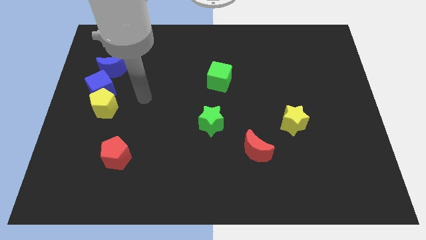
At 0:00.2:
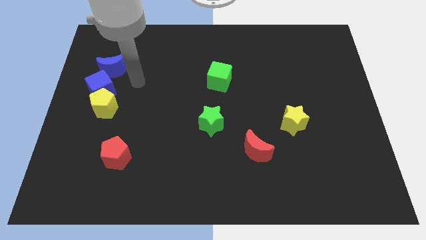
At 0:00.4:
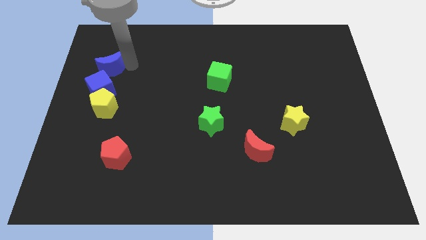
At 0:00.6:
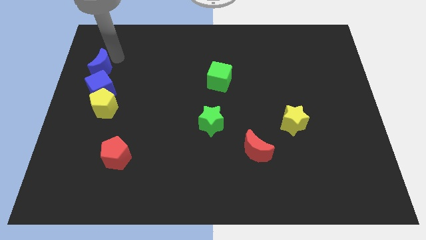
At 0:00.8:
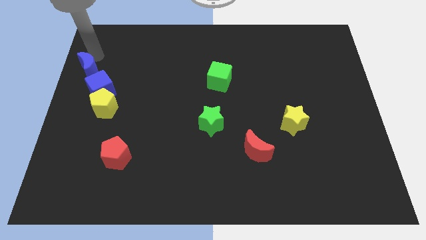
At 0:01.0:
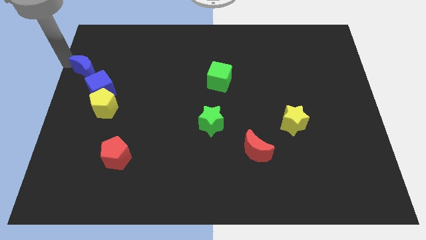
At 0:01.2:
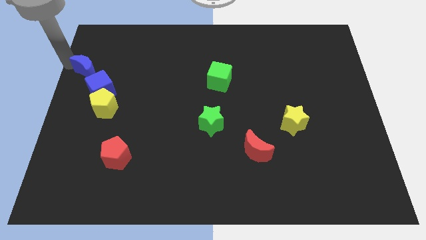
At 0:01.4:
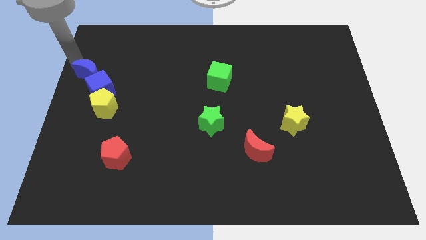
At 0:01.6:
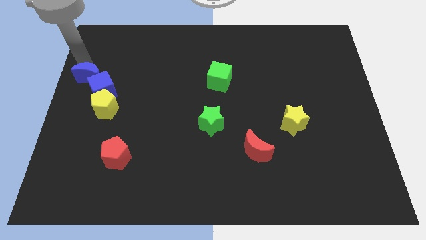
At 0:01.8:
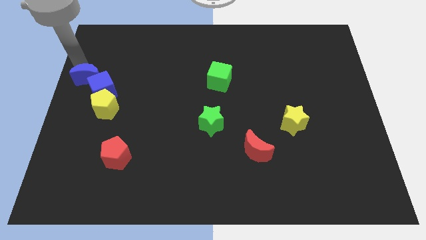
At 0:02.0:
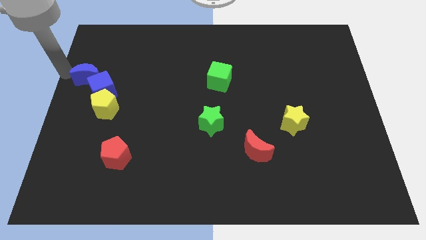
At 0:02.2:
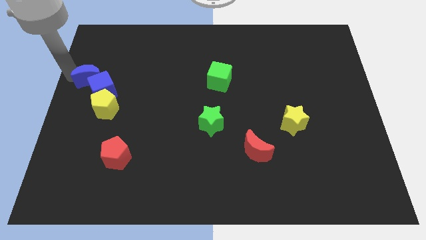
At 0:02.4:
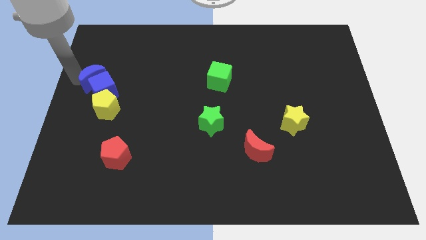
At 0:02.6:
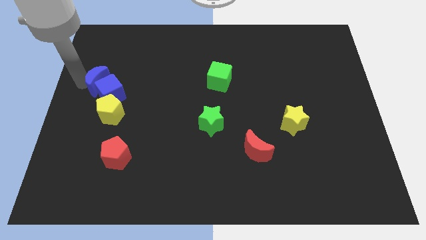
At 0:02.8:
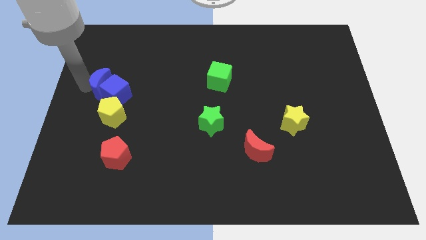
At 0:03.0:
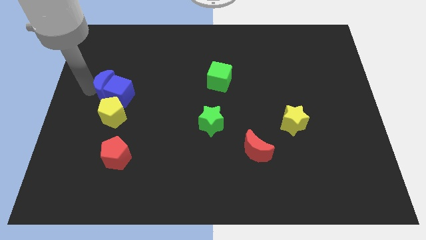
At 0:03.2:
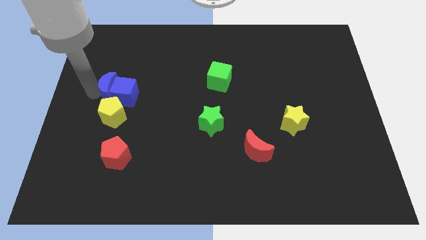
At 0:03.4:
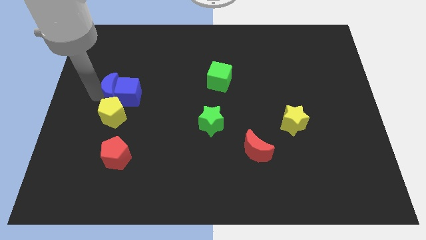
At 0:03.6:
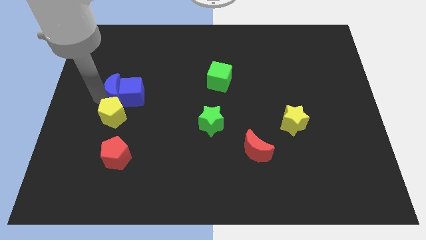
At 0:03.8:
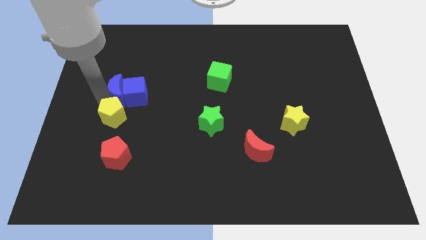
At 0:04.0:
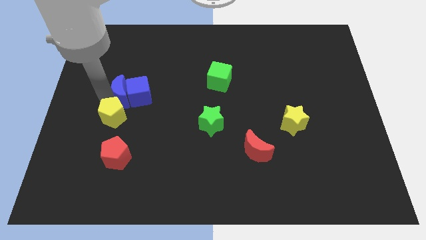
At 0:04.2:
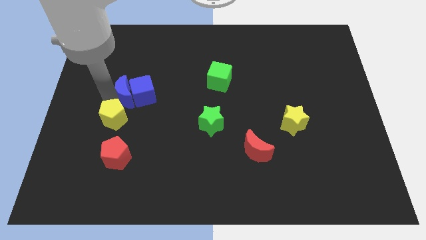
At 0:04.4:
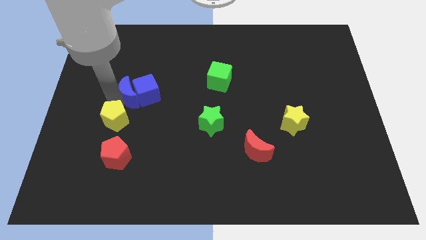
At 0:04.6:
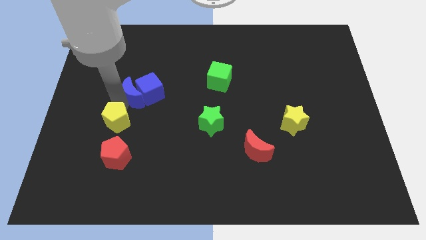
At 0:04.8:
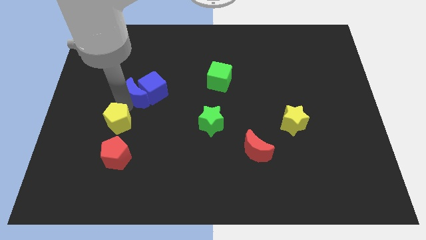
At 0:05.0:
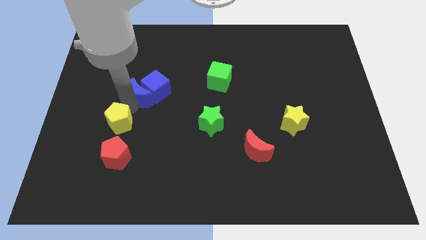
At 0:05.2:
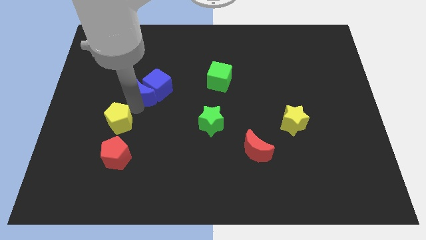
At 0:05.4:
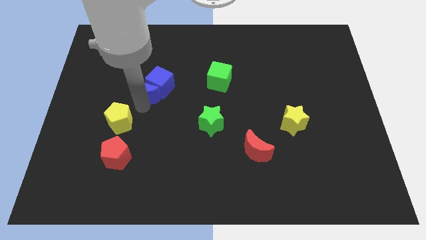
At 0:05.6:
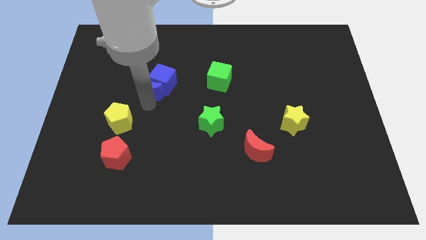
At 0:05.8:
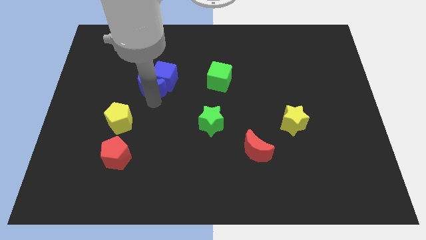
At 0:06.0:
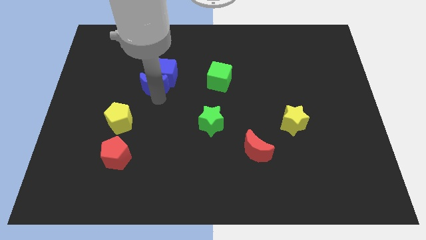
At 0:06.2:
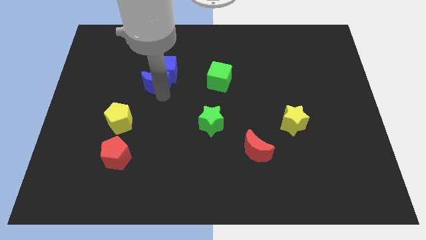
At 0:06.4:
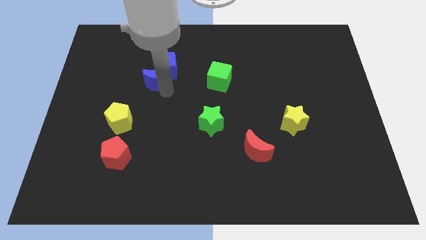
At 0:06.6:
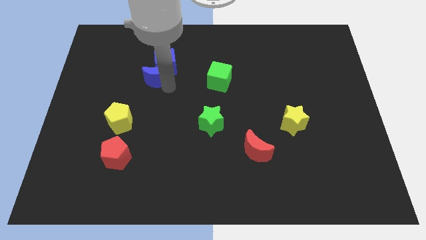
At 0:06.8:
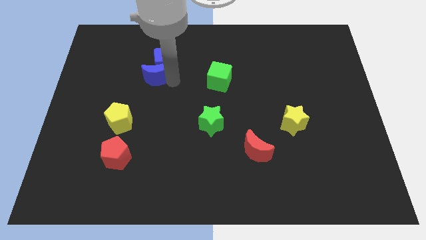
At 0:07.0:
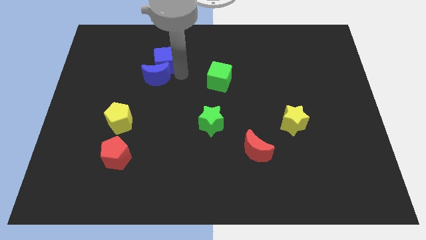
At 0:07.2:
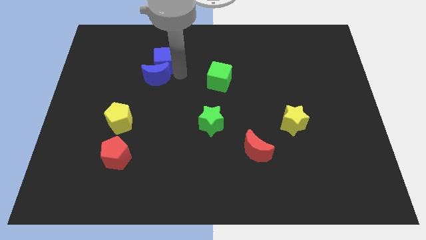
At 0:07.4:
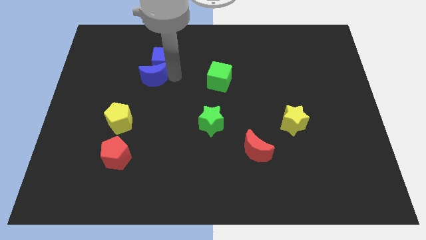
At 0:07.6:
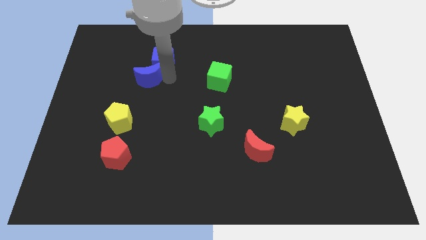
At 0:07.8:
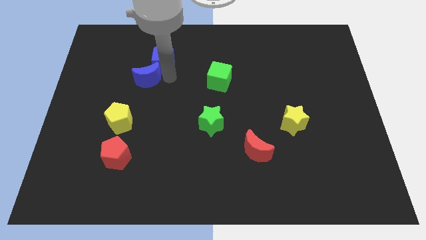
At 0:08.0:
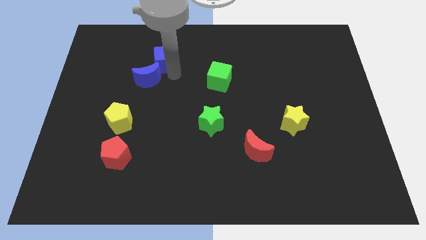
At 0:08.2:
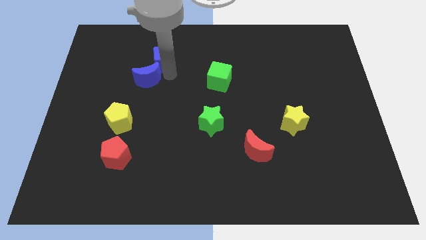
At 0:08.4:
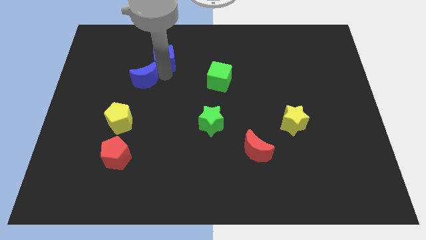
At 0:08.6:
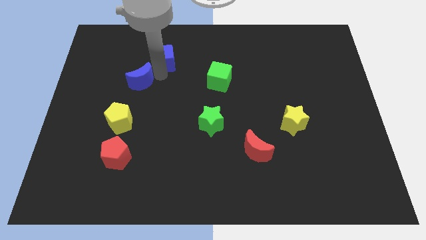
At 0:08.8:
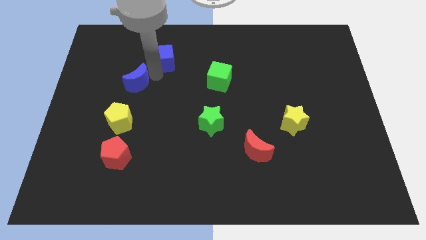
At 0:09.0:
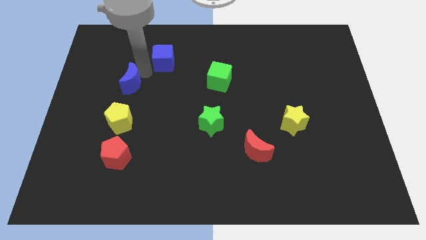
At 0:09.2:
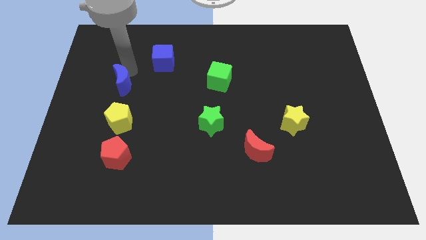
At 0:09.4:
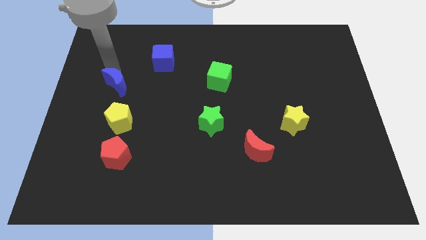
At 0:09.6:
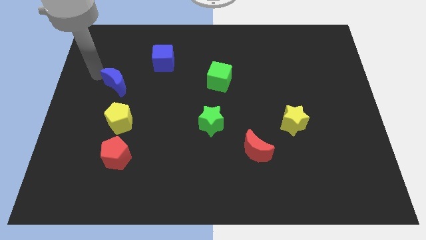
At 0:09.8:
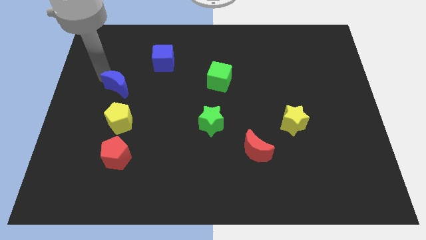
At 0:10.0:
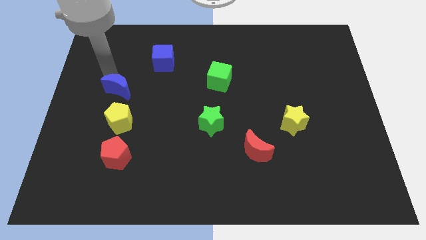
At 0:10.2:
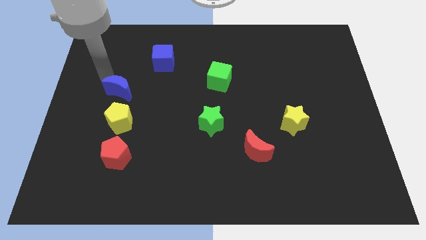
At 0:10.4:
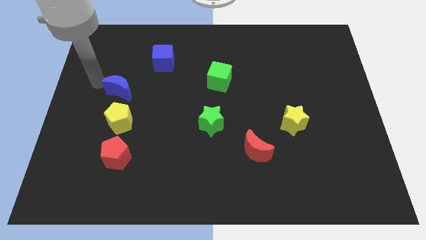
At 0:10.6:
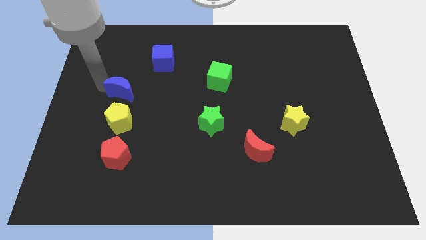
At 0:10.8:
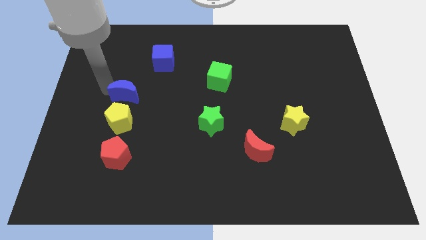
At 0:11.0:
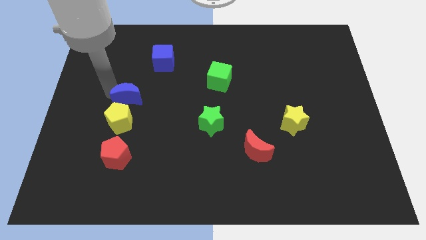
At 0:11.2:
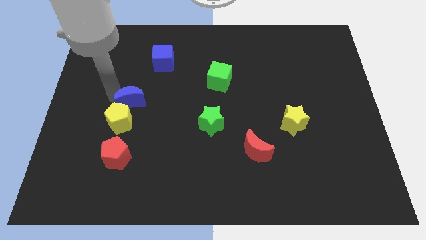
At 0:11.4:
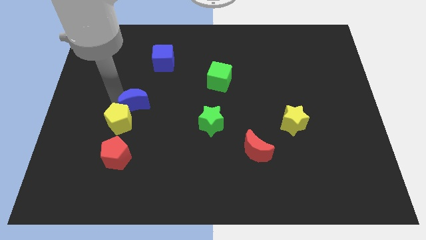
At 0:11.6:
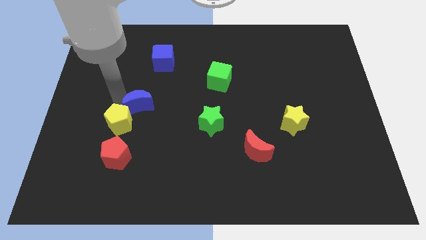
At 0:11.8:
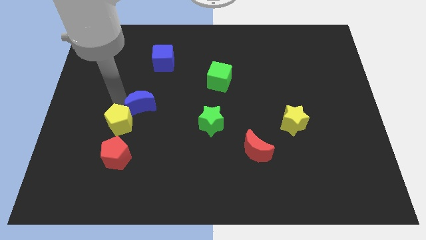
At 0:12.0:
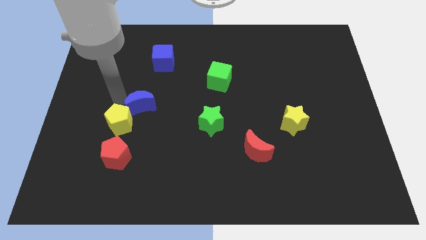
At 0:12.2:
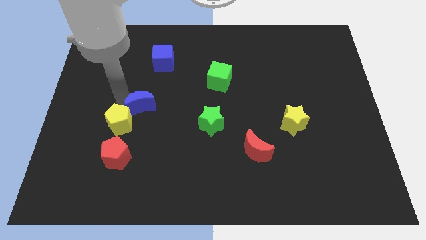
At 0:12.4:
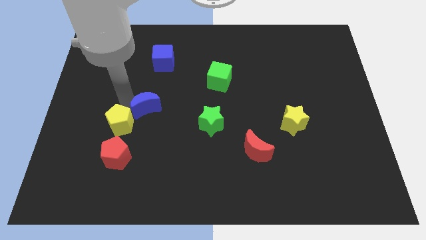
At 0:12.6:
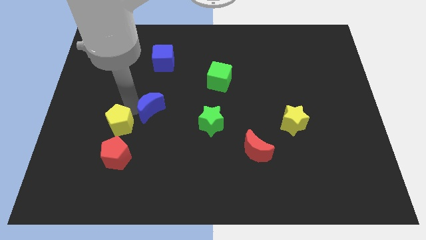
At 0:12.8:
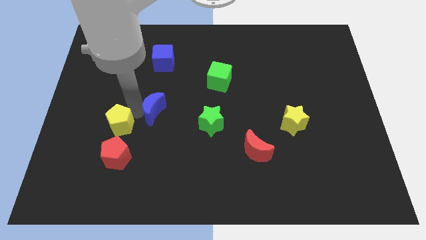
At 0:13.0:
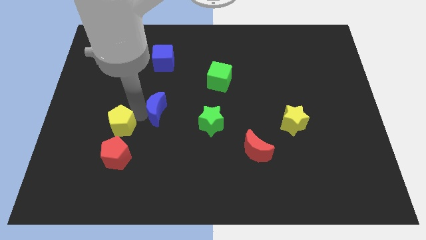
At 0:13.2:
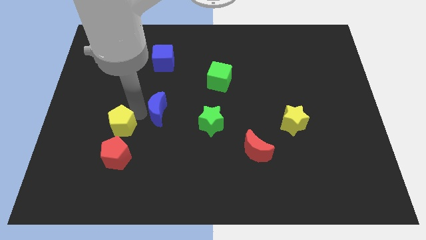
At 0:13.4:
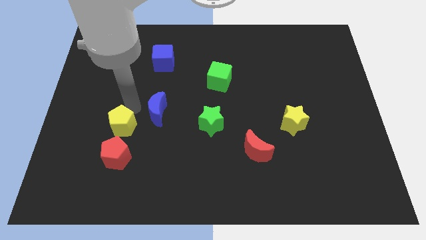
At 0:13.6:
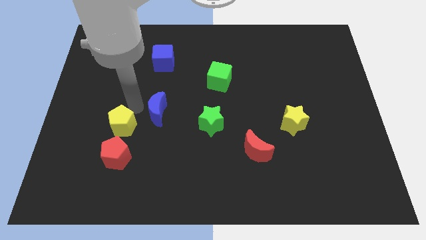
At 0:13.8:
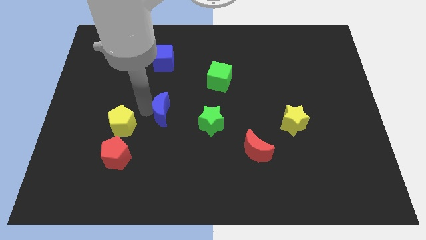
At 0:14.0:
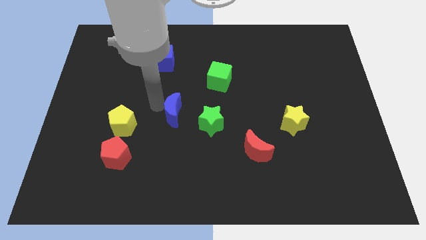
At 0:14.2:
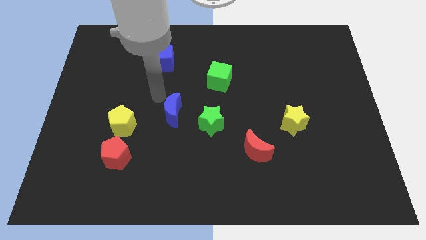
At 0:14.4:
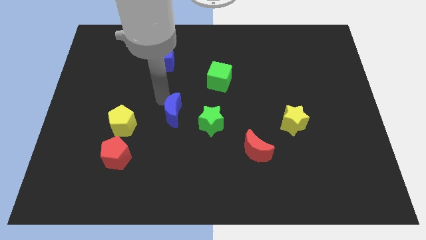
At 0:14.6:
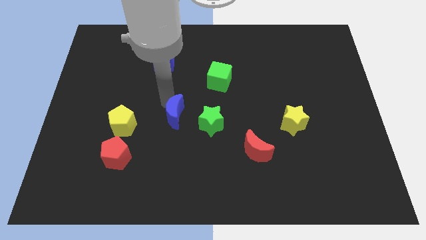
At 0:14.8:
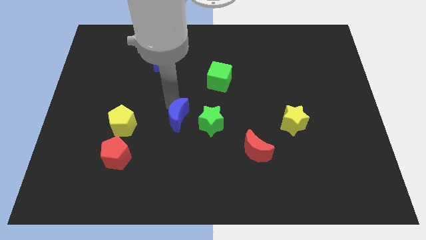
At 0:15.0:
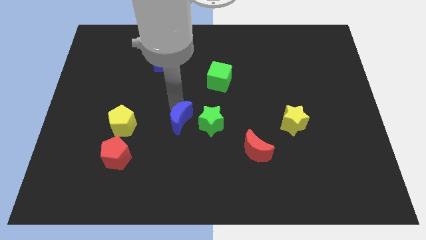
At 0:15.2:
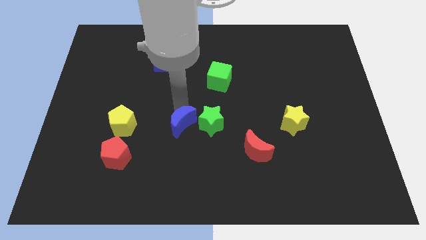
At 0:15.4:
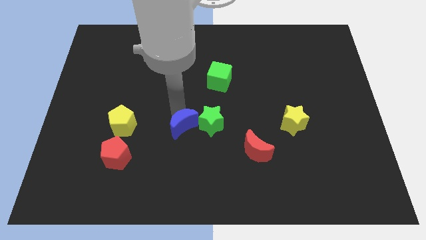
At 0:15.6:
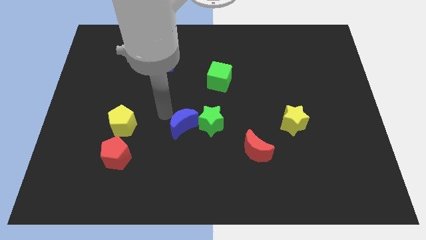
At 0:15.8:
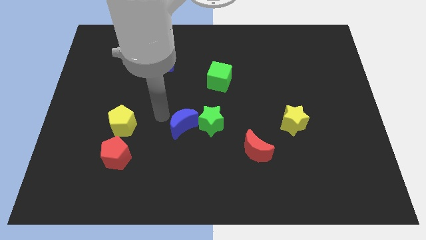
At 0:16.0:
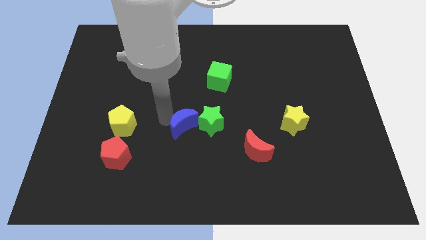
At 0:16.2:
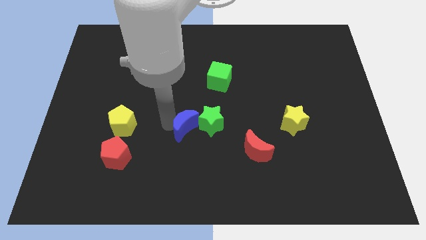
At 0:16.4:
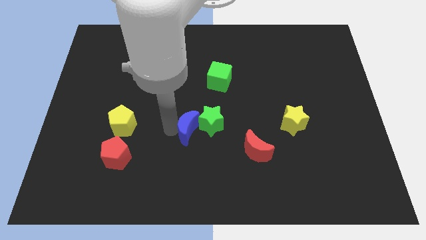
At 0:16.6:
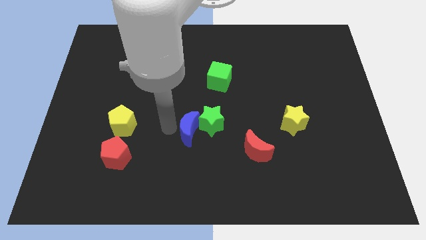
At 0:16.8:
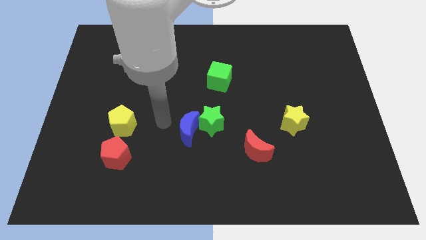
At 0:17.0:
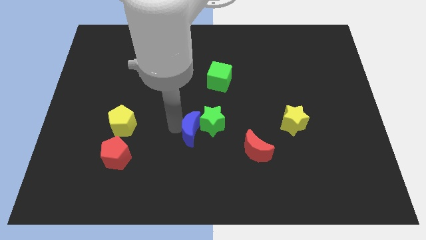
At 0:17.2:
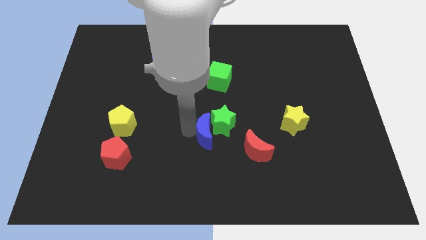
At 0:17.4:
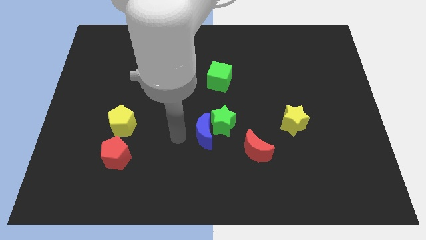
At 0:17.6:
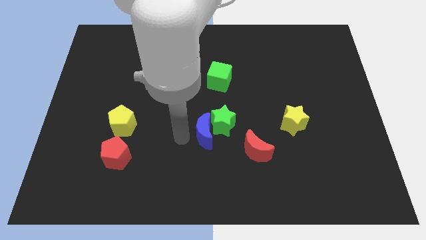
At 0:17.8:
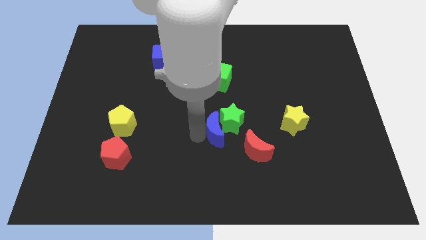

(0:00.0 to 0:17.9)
push the blue moon to the top left of the red moon
